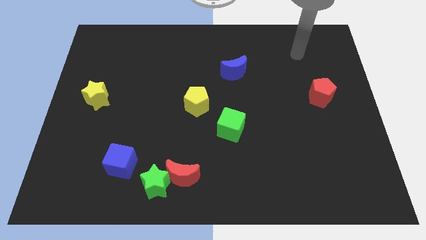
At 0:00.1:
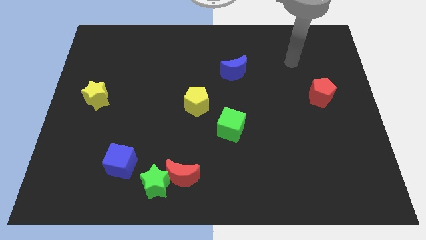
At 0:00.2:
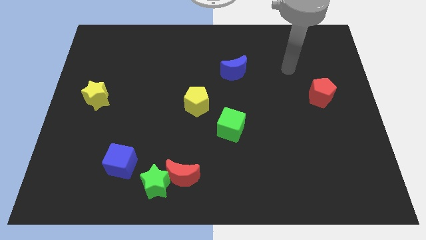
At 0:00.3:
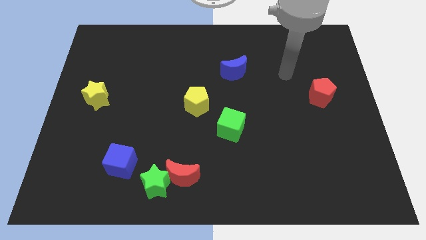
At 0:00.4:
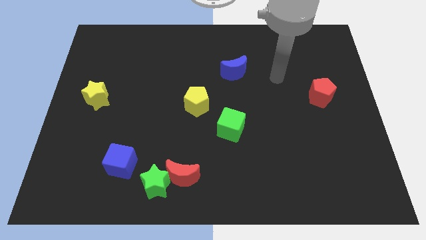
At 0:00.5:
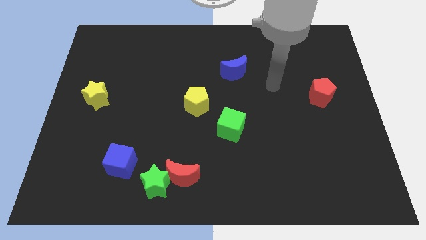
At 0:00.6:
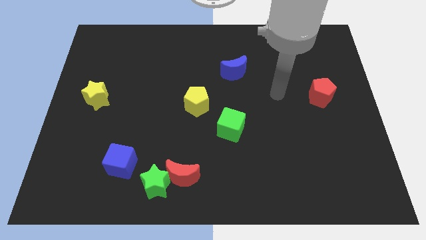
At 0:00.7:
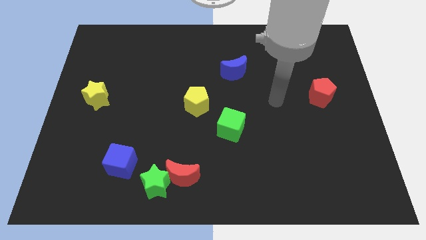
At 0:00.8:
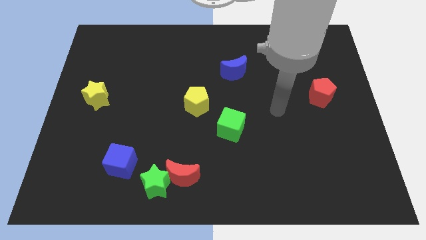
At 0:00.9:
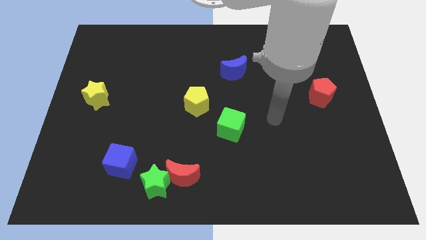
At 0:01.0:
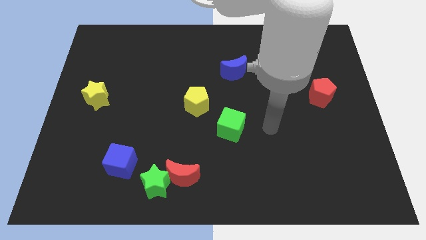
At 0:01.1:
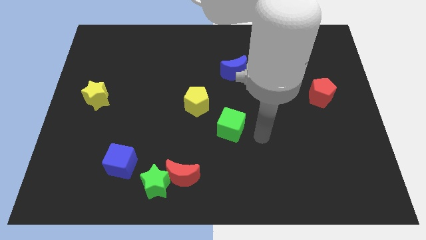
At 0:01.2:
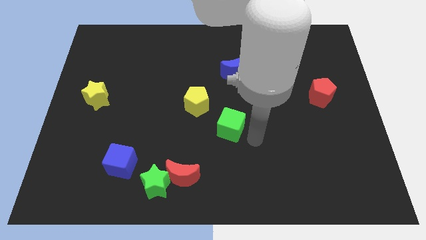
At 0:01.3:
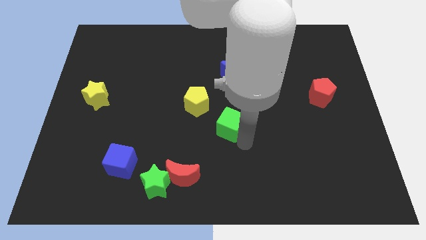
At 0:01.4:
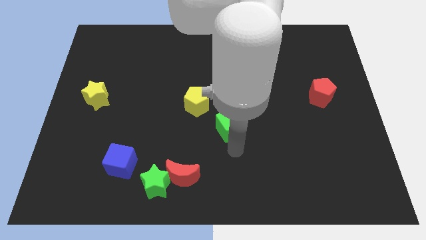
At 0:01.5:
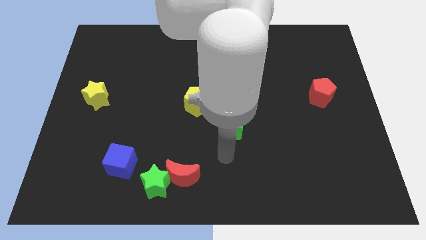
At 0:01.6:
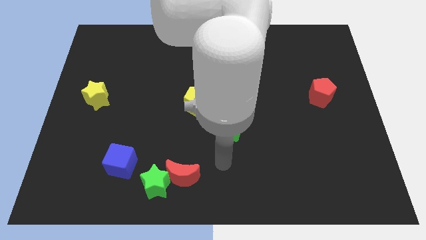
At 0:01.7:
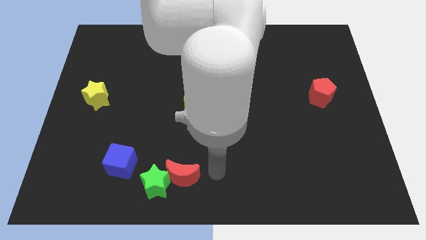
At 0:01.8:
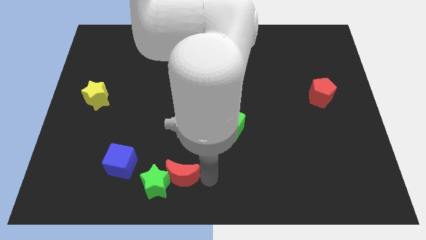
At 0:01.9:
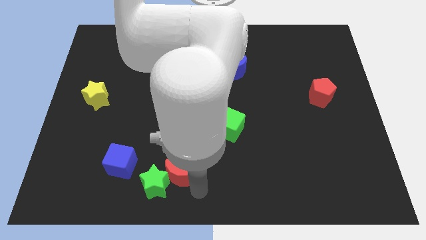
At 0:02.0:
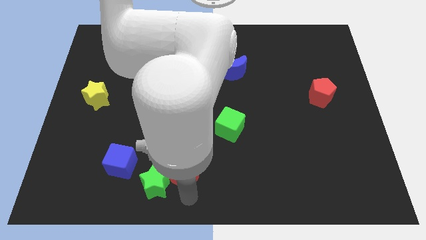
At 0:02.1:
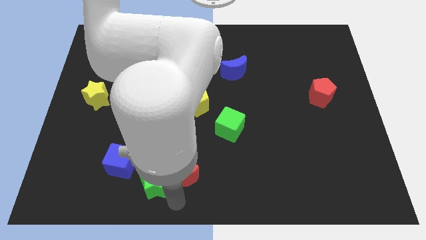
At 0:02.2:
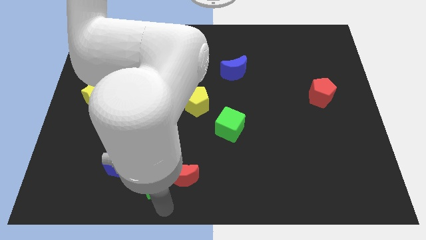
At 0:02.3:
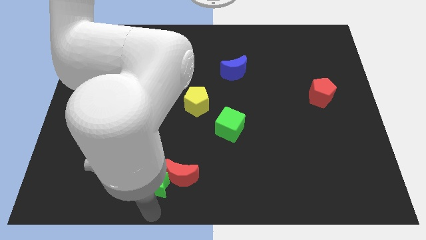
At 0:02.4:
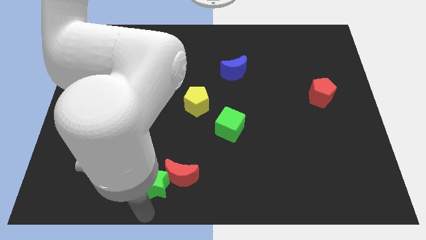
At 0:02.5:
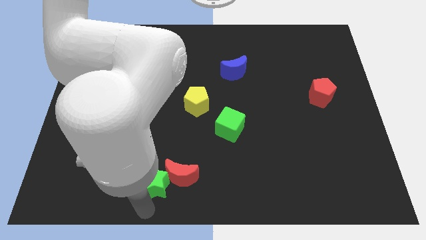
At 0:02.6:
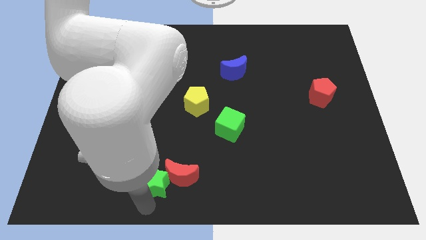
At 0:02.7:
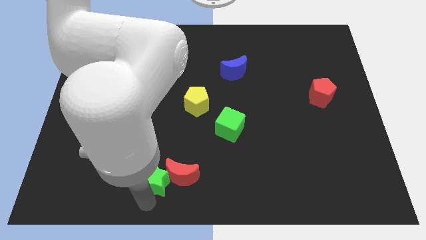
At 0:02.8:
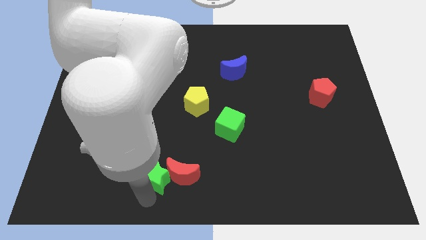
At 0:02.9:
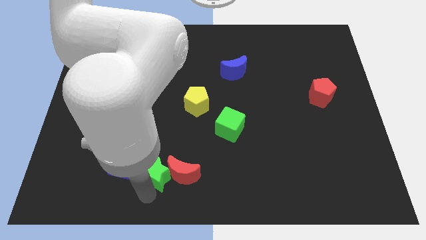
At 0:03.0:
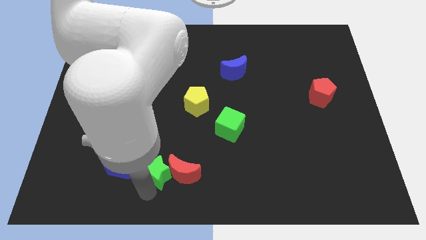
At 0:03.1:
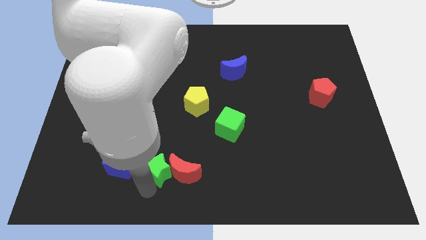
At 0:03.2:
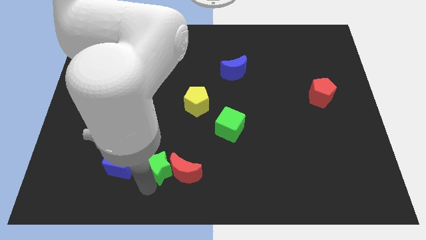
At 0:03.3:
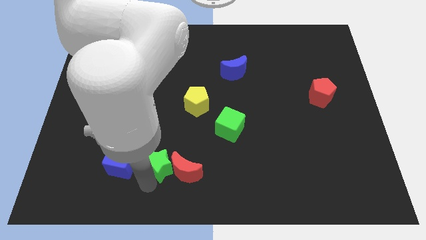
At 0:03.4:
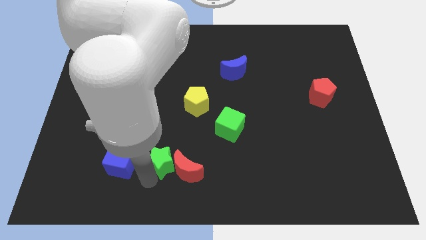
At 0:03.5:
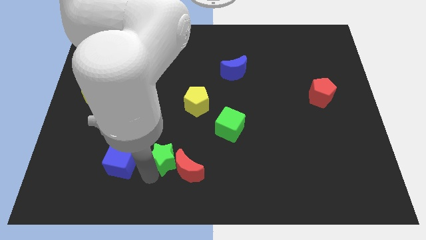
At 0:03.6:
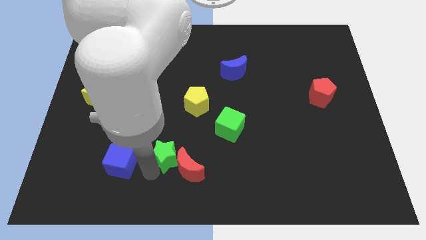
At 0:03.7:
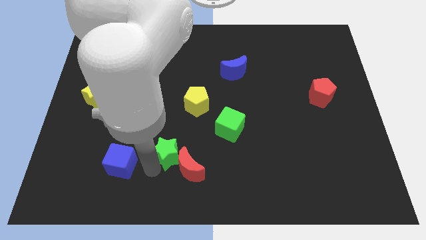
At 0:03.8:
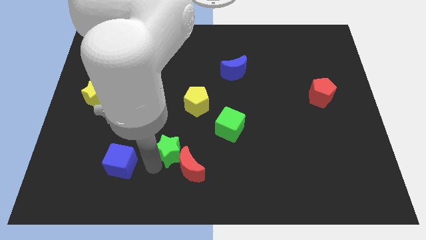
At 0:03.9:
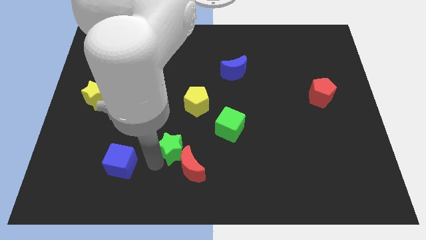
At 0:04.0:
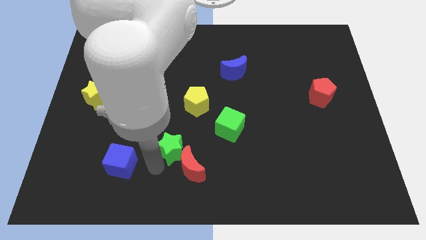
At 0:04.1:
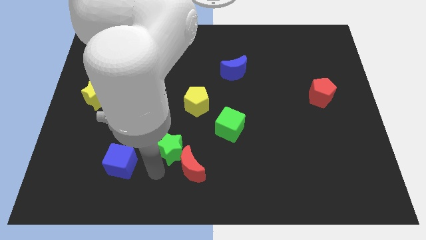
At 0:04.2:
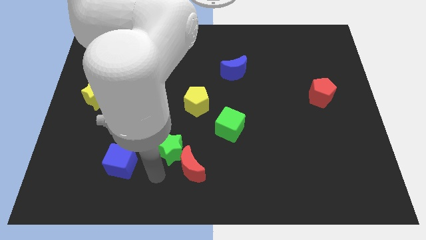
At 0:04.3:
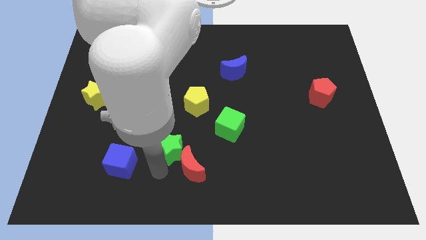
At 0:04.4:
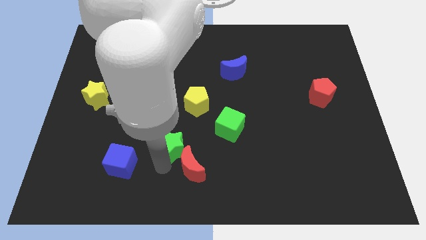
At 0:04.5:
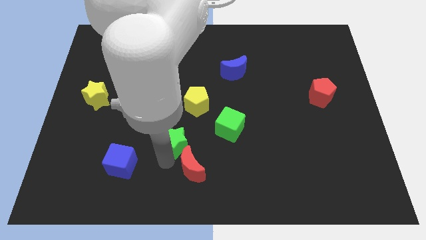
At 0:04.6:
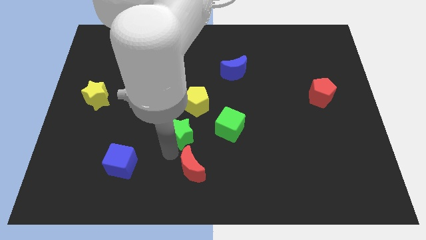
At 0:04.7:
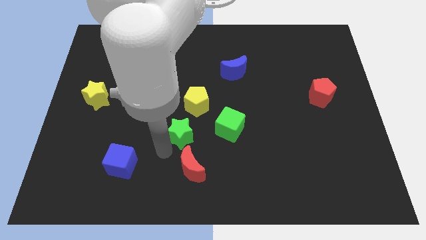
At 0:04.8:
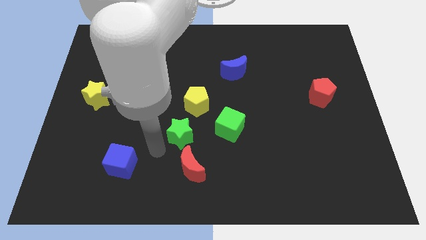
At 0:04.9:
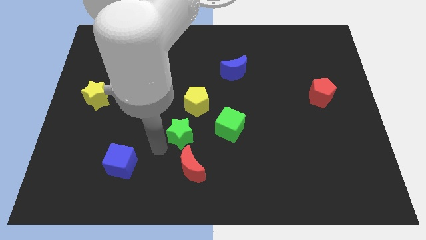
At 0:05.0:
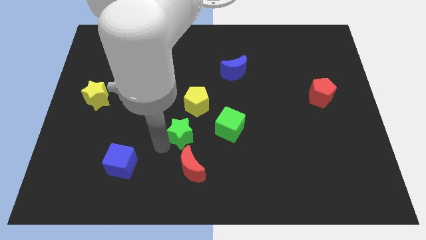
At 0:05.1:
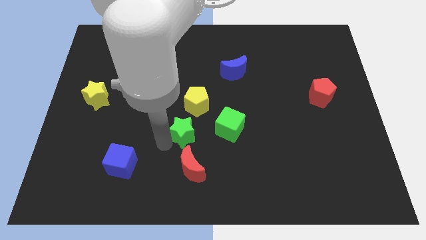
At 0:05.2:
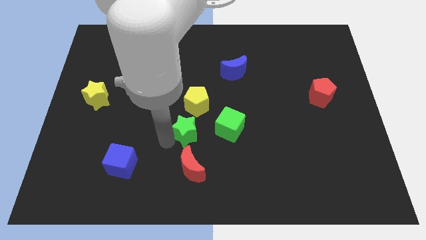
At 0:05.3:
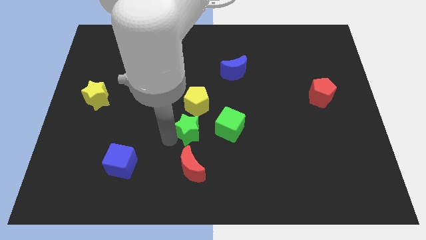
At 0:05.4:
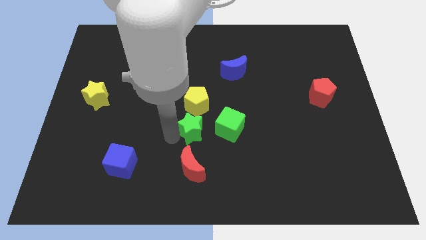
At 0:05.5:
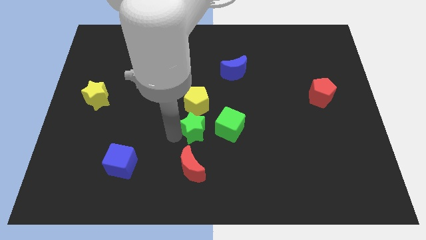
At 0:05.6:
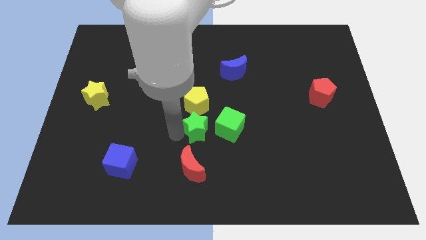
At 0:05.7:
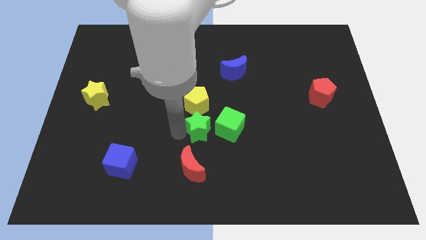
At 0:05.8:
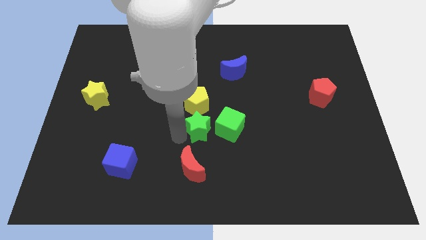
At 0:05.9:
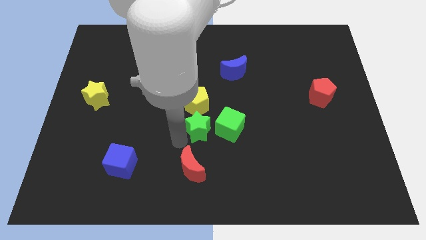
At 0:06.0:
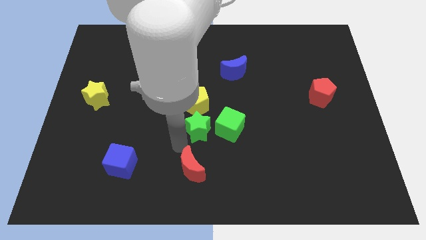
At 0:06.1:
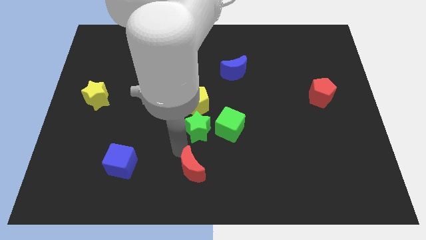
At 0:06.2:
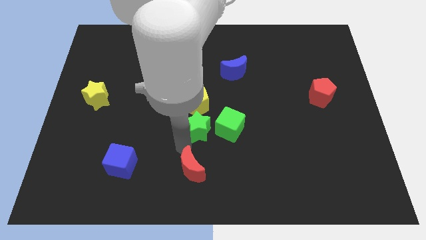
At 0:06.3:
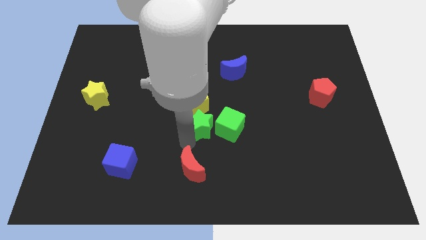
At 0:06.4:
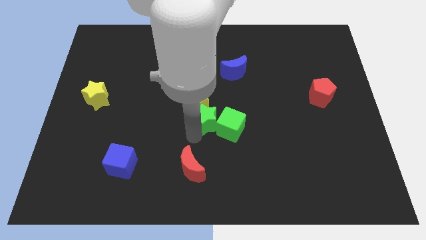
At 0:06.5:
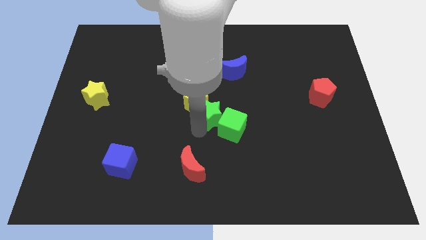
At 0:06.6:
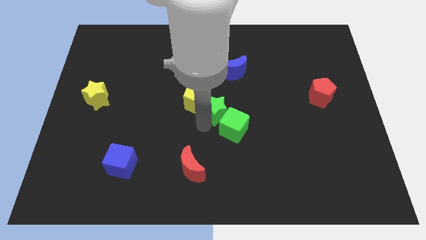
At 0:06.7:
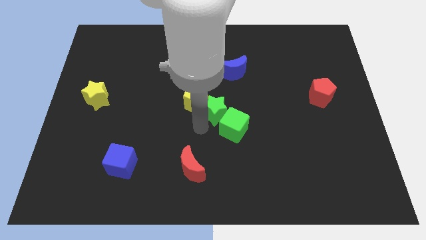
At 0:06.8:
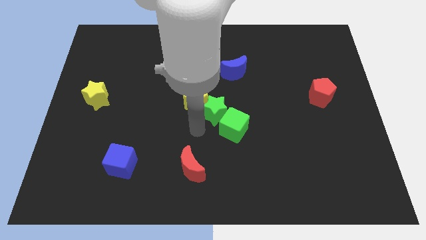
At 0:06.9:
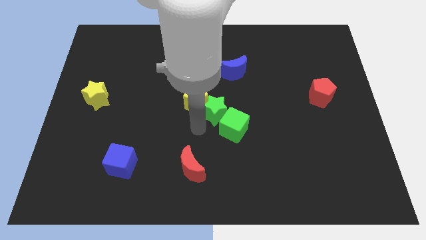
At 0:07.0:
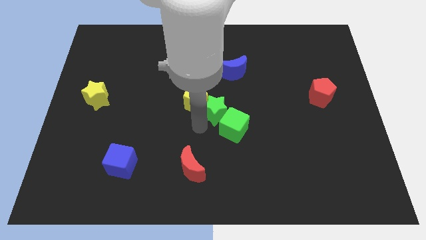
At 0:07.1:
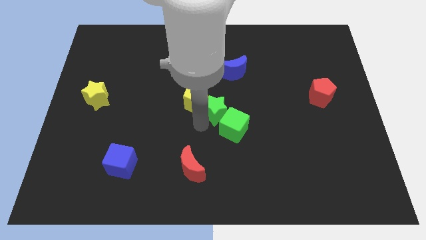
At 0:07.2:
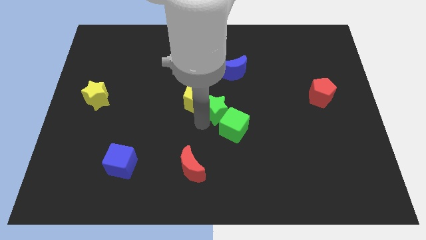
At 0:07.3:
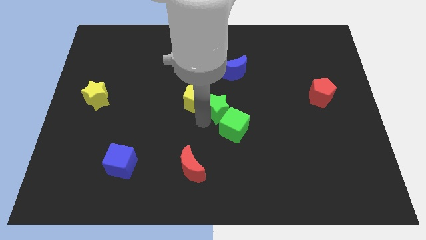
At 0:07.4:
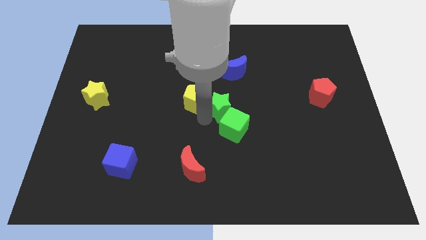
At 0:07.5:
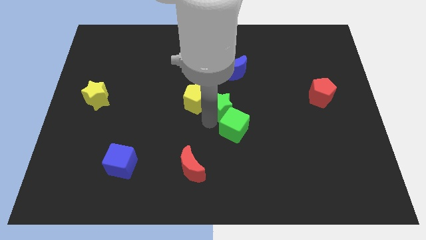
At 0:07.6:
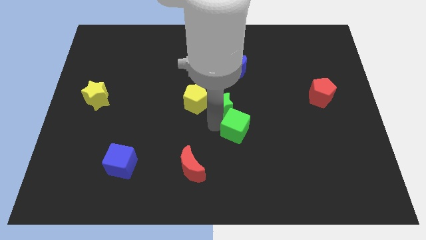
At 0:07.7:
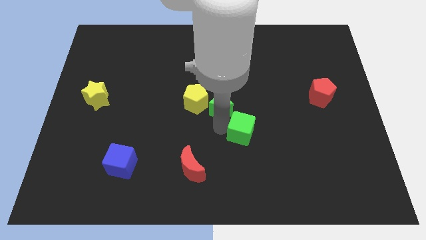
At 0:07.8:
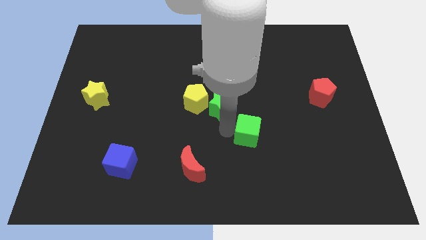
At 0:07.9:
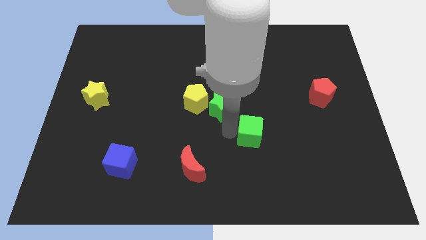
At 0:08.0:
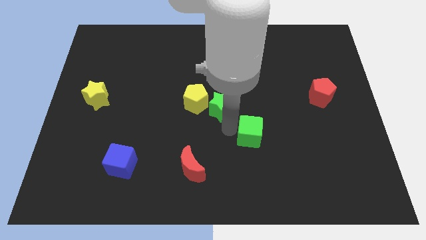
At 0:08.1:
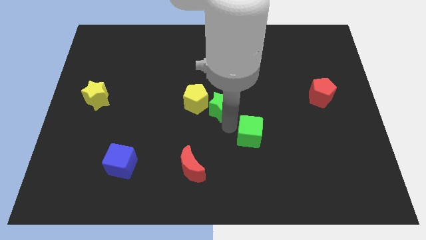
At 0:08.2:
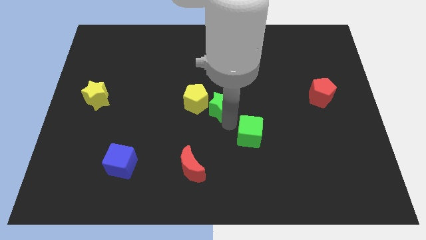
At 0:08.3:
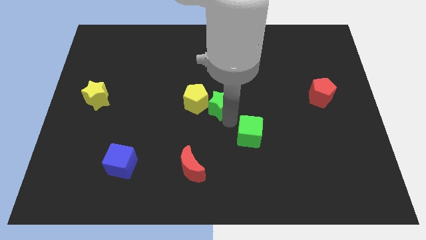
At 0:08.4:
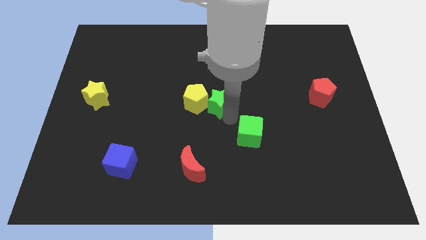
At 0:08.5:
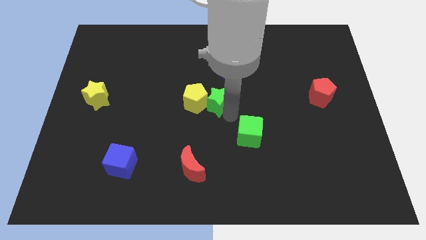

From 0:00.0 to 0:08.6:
move the green star diagonally down and to the left of the blue moon
